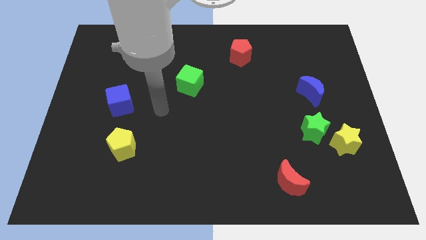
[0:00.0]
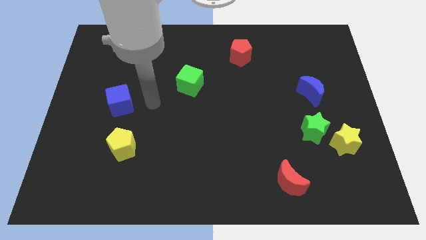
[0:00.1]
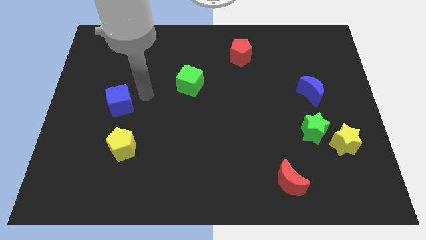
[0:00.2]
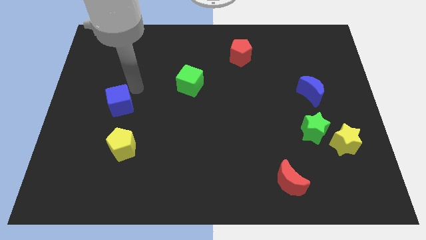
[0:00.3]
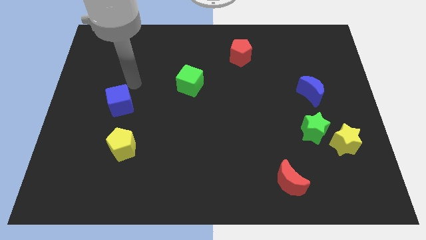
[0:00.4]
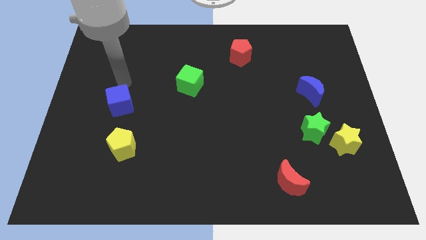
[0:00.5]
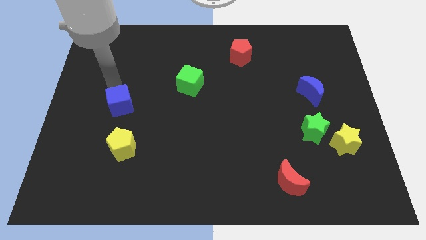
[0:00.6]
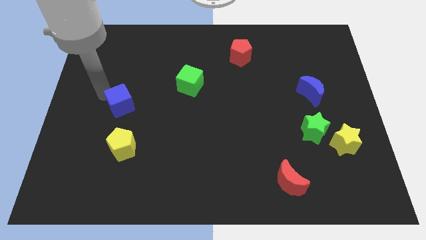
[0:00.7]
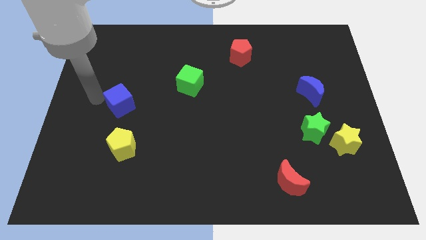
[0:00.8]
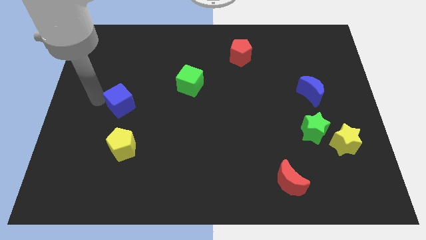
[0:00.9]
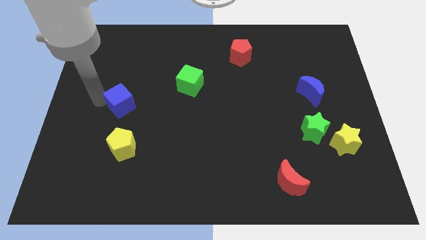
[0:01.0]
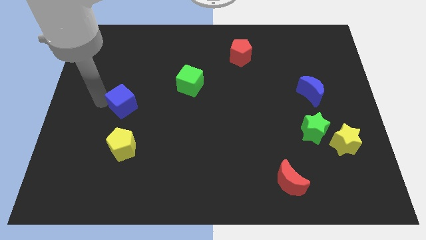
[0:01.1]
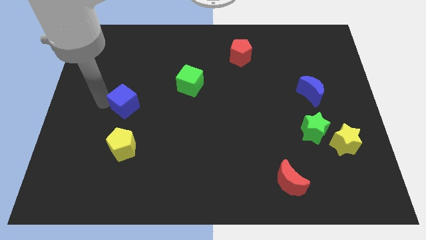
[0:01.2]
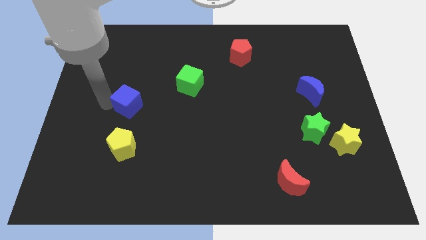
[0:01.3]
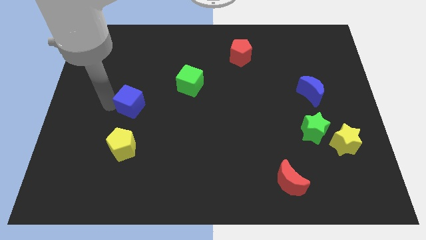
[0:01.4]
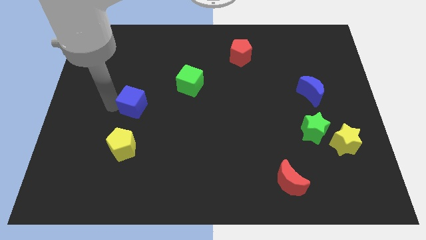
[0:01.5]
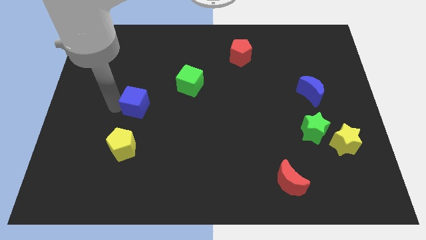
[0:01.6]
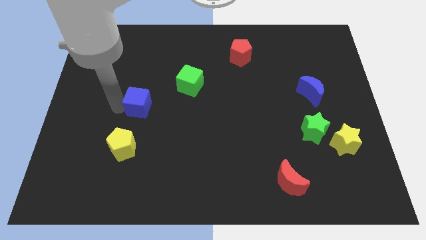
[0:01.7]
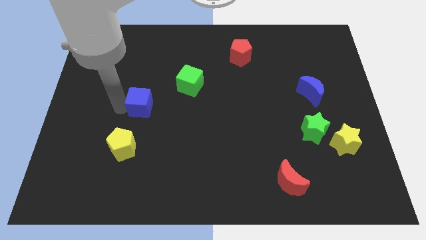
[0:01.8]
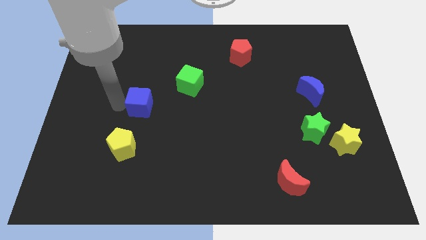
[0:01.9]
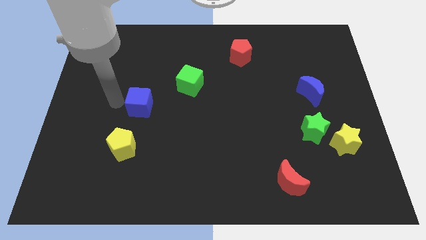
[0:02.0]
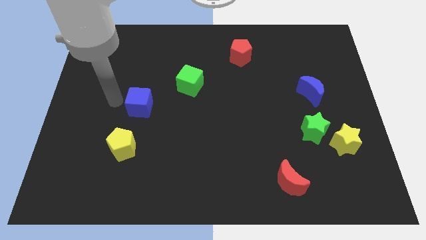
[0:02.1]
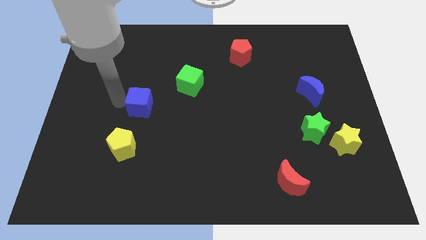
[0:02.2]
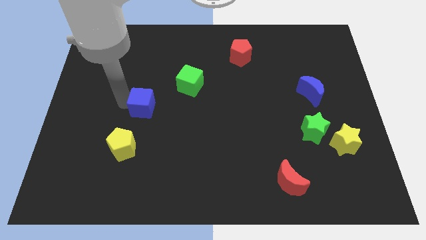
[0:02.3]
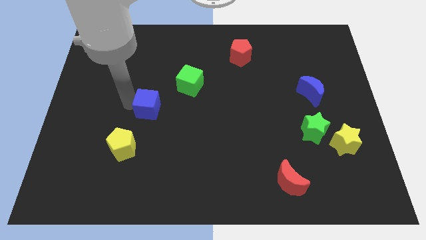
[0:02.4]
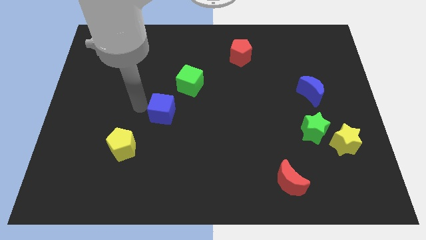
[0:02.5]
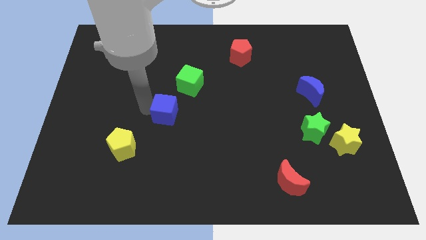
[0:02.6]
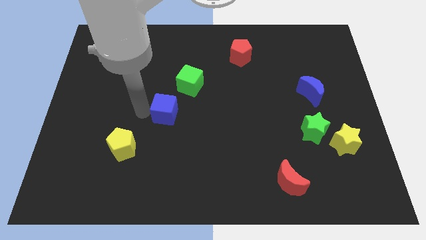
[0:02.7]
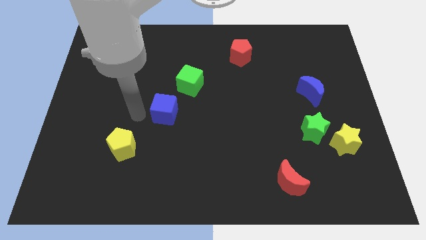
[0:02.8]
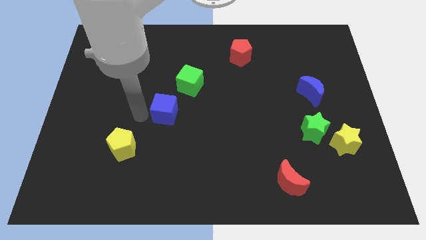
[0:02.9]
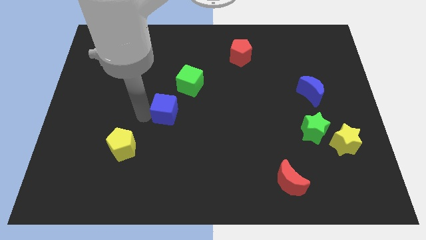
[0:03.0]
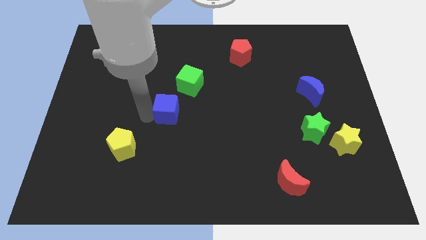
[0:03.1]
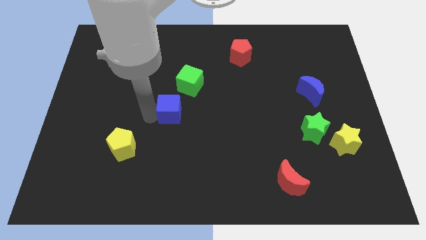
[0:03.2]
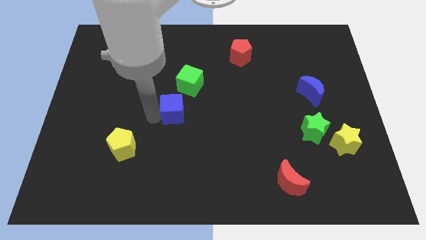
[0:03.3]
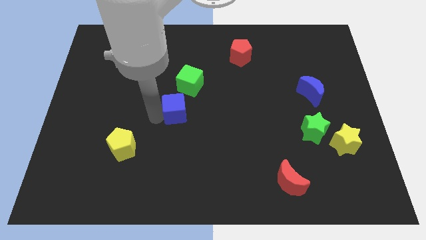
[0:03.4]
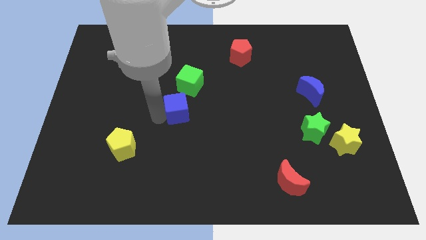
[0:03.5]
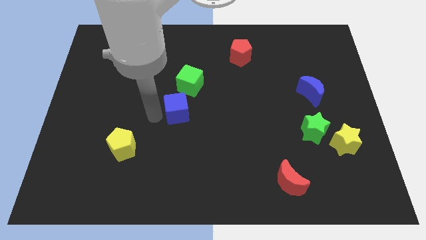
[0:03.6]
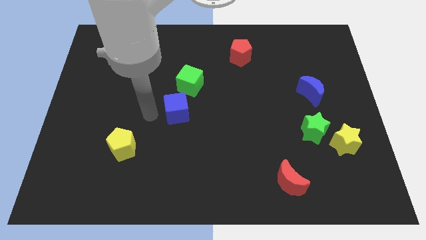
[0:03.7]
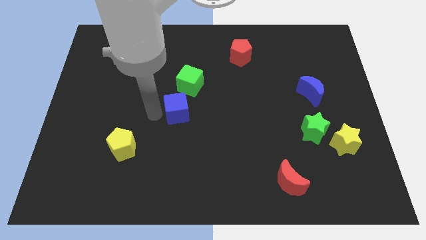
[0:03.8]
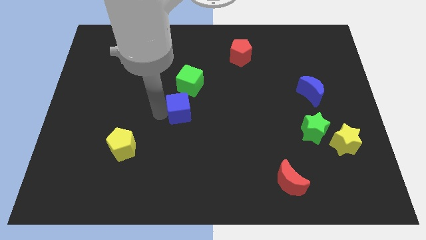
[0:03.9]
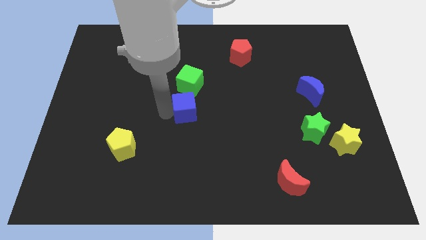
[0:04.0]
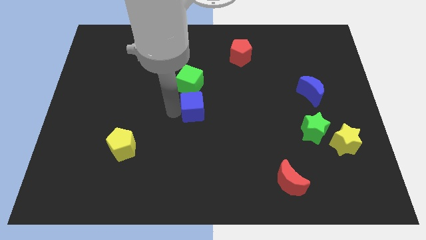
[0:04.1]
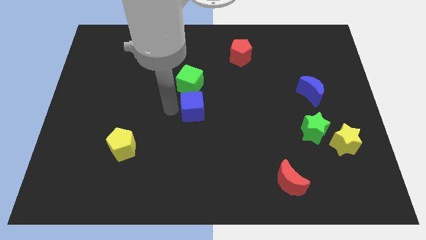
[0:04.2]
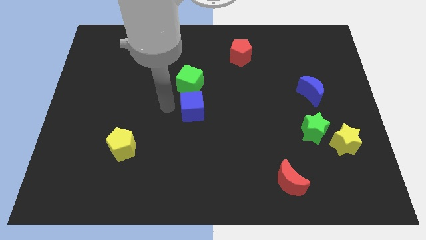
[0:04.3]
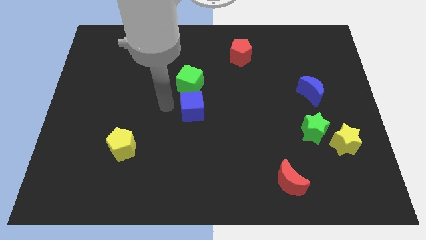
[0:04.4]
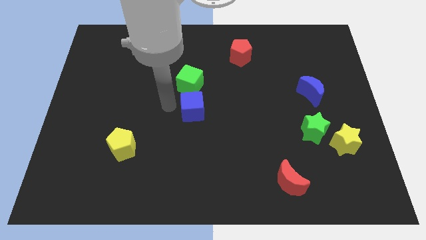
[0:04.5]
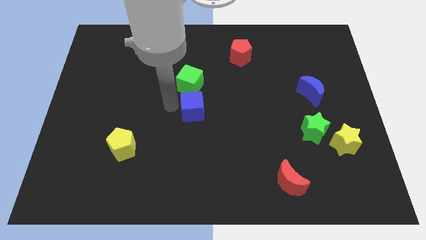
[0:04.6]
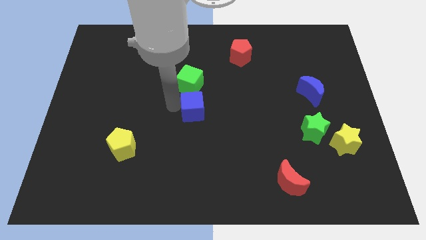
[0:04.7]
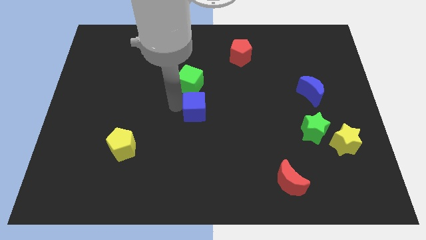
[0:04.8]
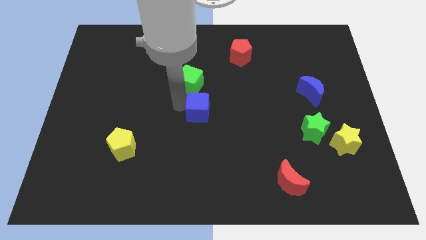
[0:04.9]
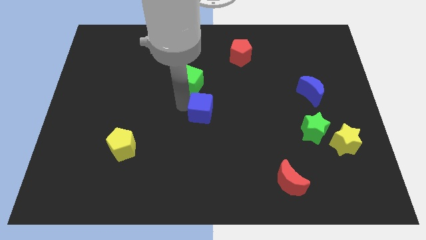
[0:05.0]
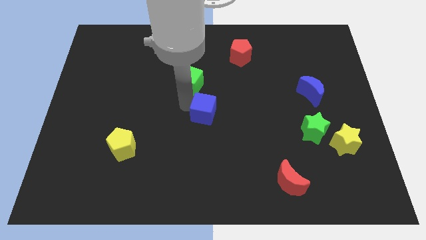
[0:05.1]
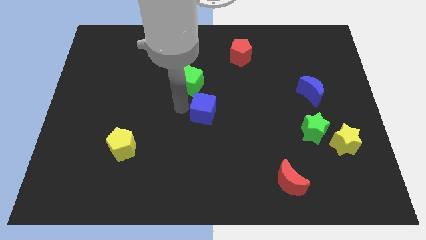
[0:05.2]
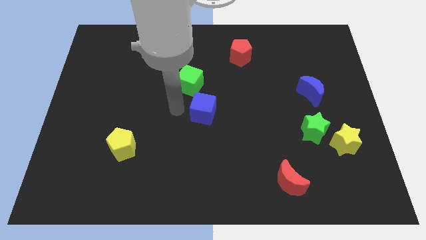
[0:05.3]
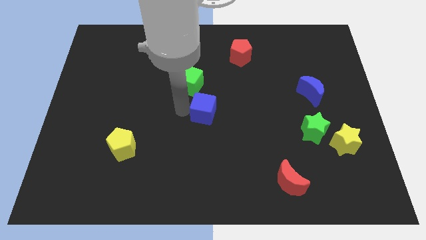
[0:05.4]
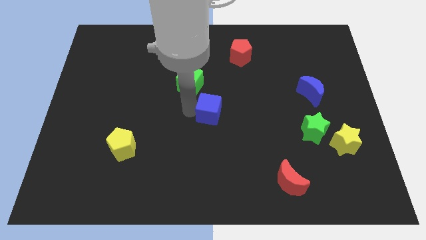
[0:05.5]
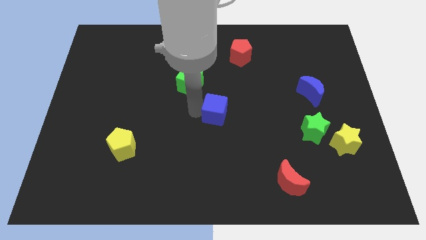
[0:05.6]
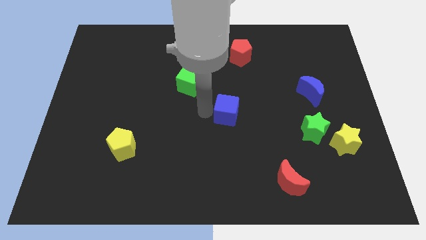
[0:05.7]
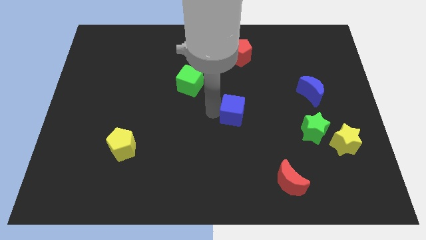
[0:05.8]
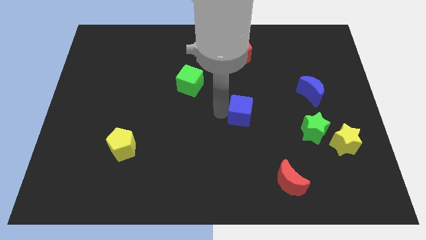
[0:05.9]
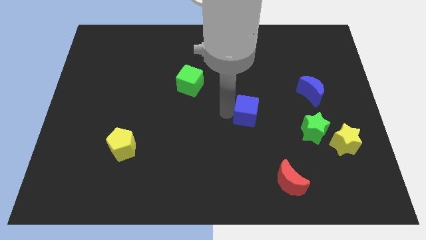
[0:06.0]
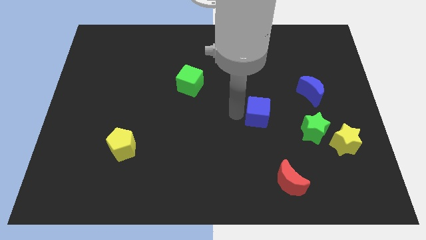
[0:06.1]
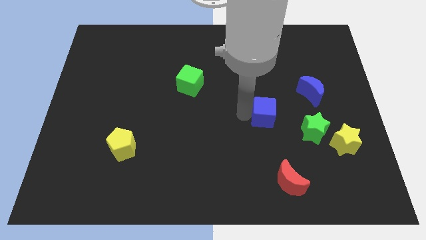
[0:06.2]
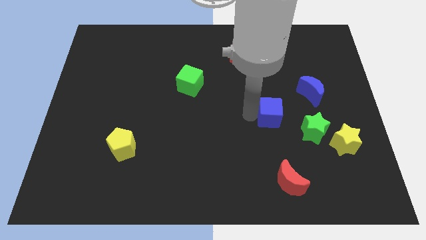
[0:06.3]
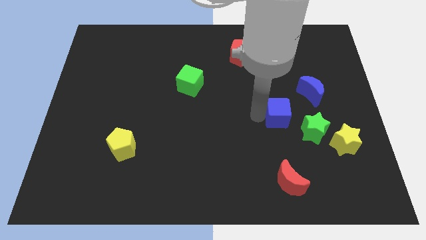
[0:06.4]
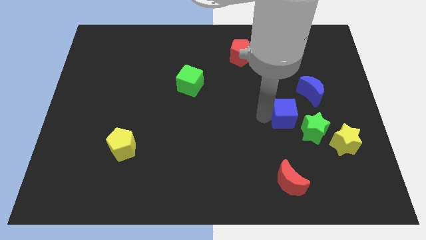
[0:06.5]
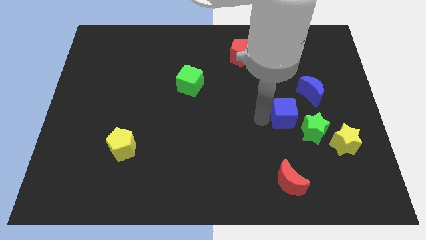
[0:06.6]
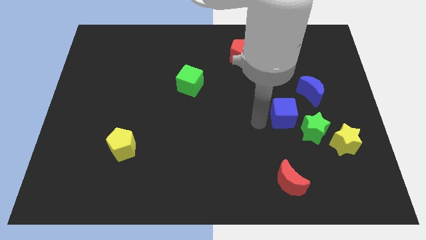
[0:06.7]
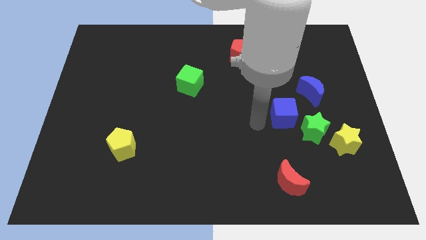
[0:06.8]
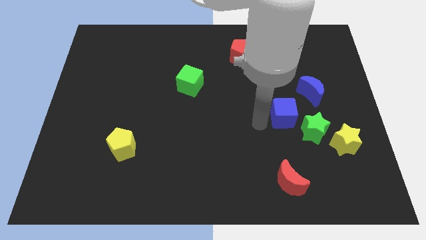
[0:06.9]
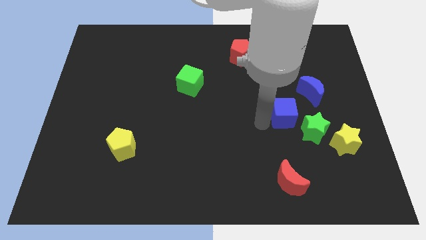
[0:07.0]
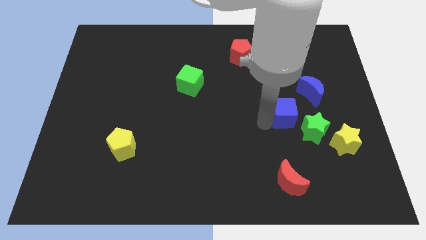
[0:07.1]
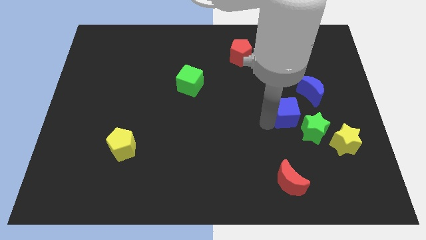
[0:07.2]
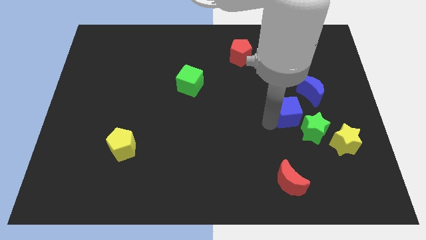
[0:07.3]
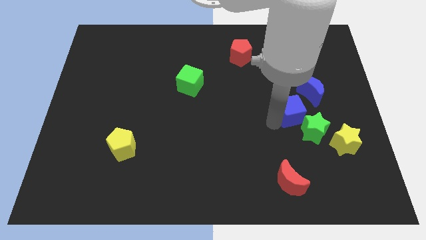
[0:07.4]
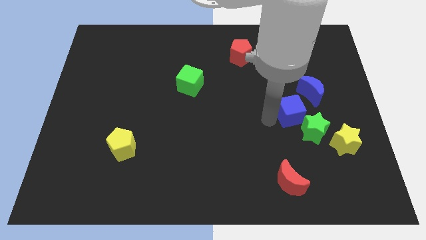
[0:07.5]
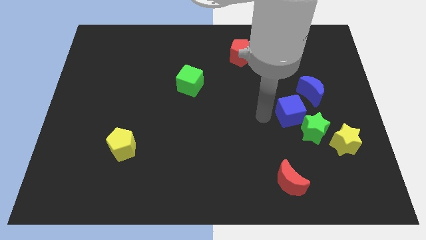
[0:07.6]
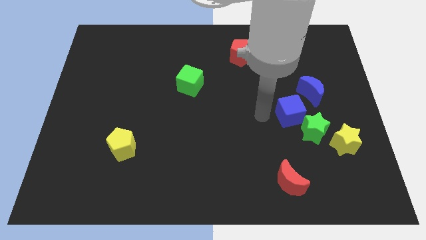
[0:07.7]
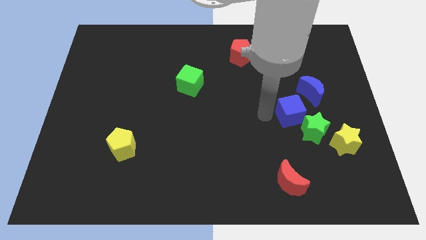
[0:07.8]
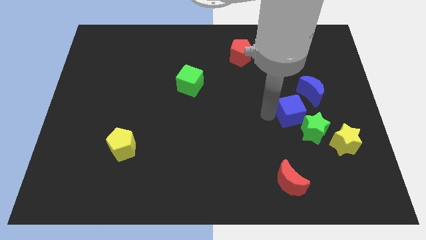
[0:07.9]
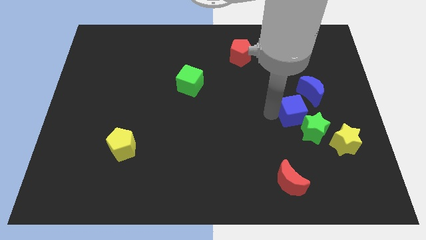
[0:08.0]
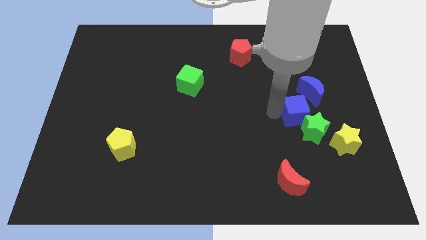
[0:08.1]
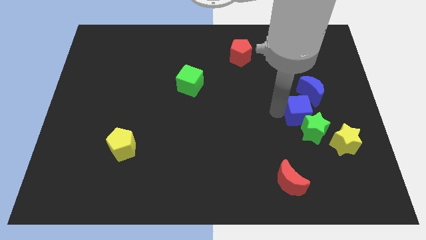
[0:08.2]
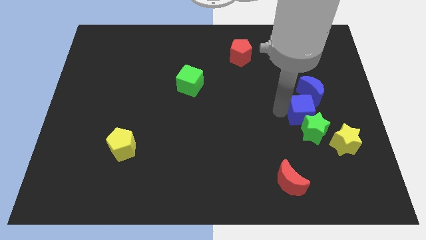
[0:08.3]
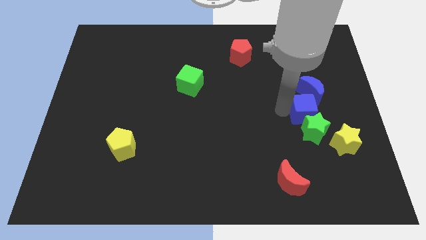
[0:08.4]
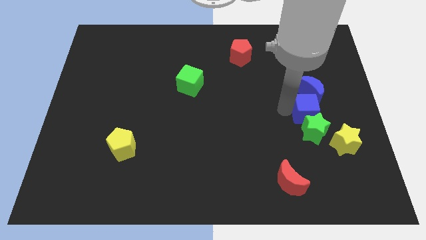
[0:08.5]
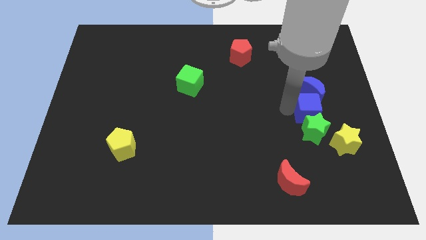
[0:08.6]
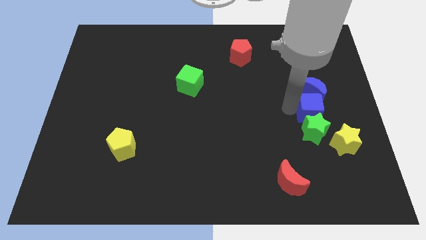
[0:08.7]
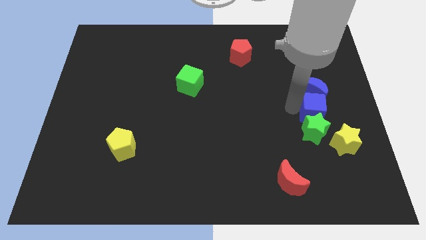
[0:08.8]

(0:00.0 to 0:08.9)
move the blue cube to the bottom right of the blue moon
